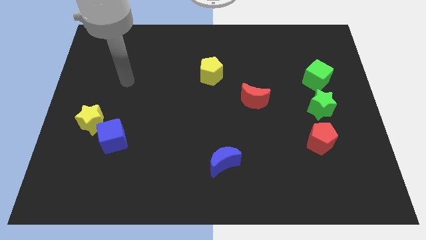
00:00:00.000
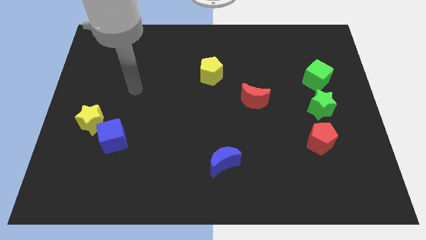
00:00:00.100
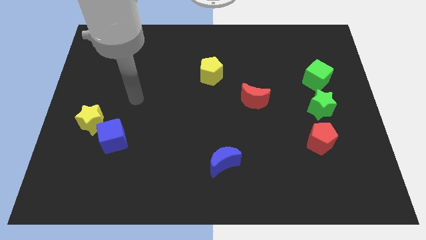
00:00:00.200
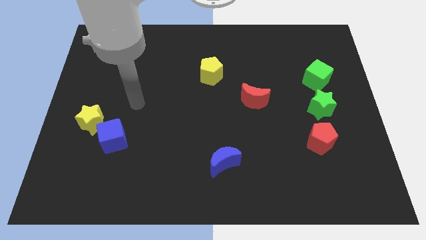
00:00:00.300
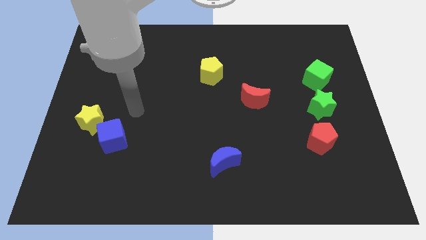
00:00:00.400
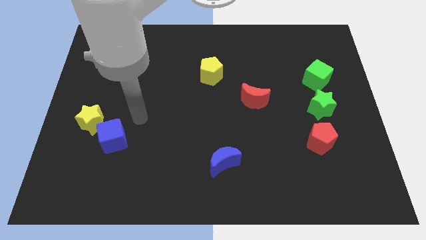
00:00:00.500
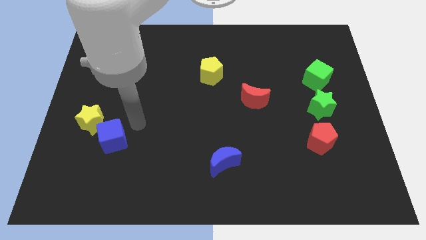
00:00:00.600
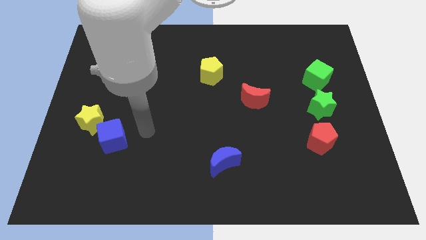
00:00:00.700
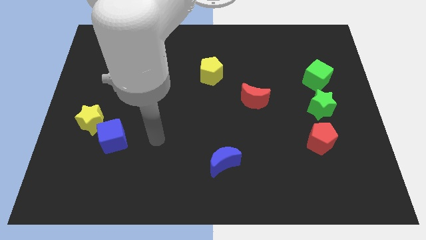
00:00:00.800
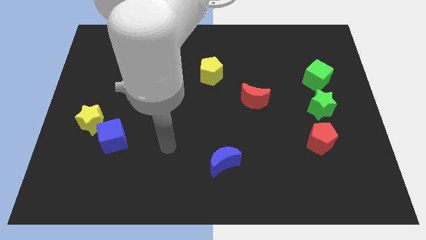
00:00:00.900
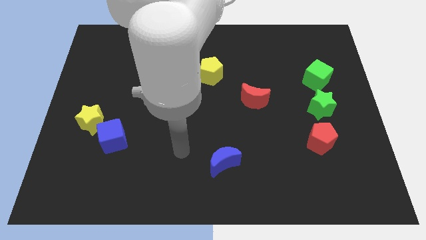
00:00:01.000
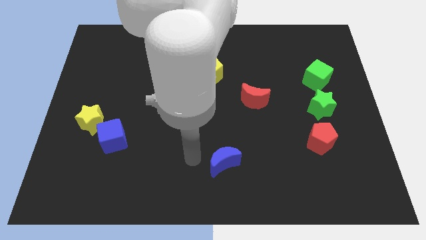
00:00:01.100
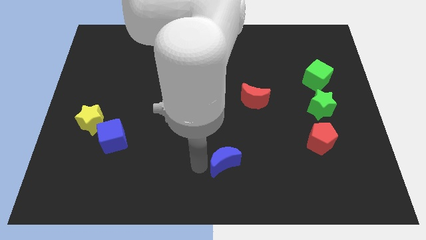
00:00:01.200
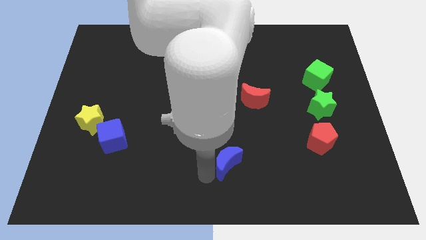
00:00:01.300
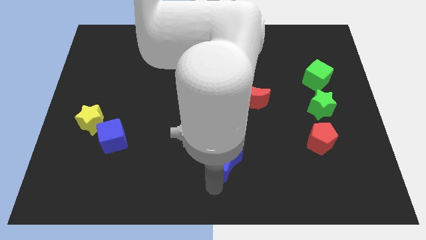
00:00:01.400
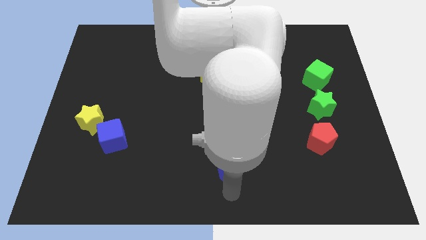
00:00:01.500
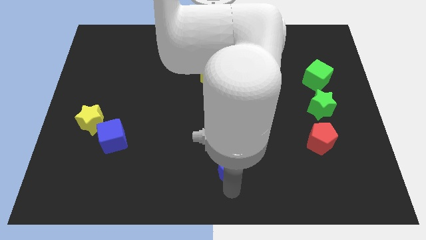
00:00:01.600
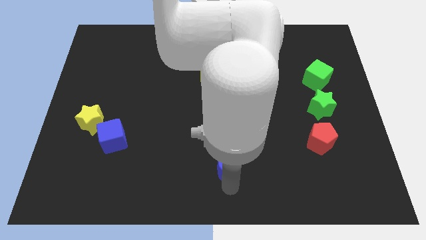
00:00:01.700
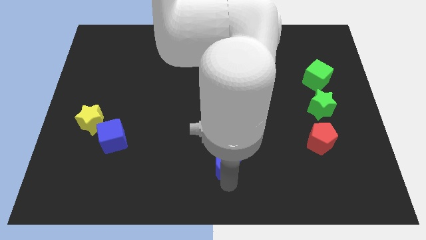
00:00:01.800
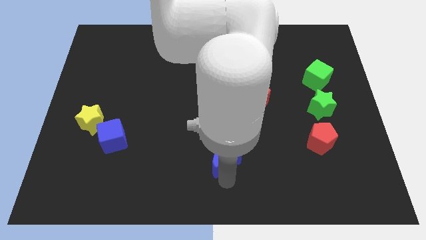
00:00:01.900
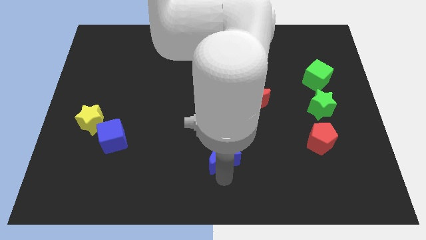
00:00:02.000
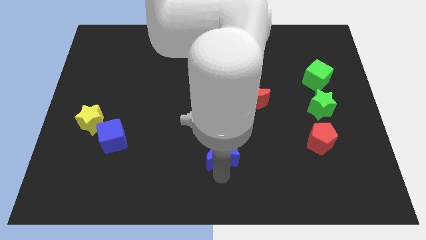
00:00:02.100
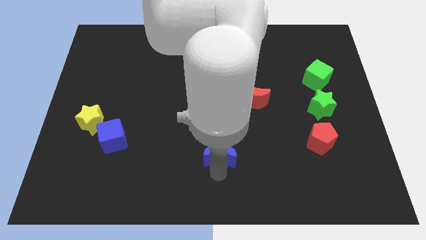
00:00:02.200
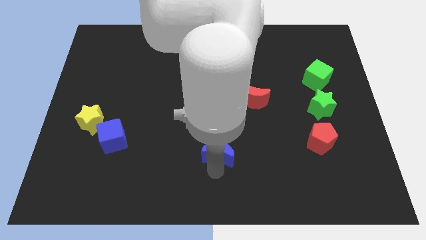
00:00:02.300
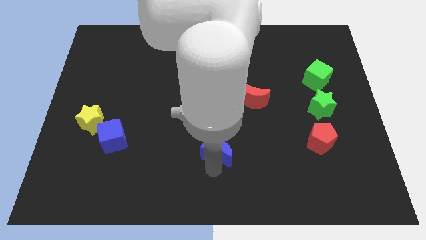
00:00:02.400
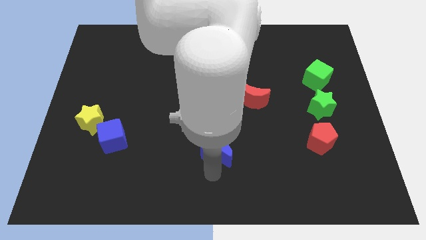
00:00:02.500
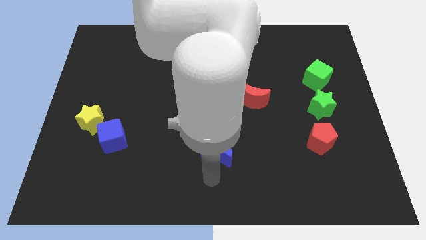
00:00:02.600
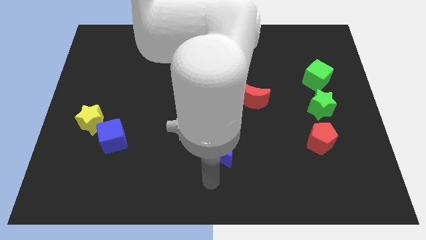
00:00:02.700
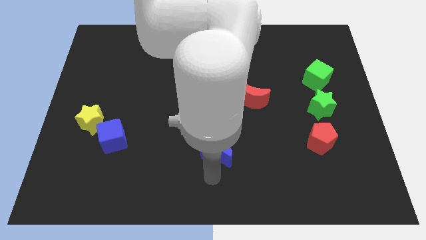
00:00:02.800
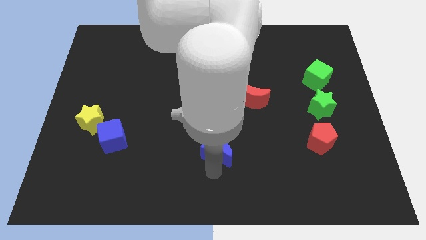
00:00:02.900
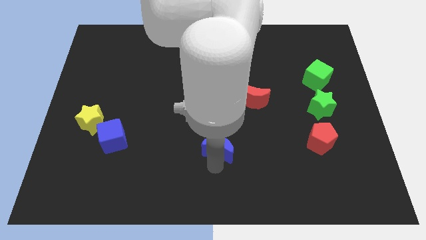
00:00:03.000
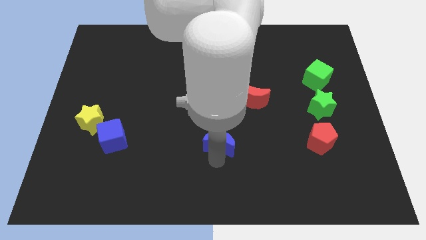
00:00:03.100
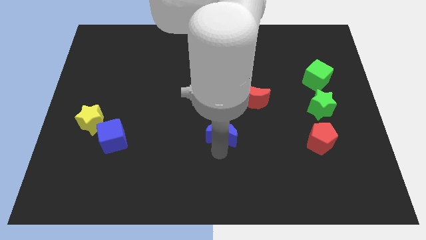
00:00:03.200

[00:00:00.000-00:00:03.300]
push the blue moon up a little bit

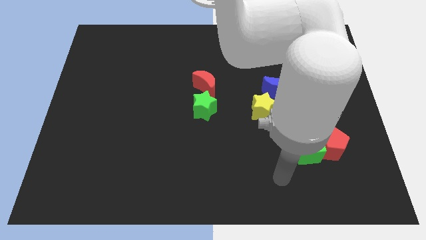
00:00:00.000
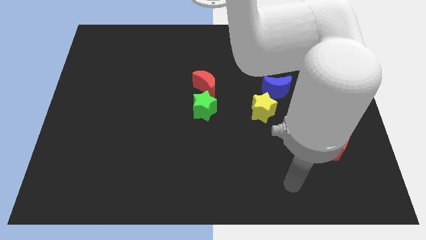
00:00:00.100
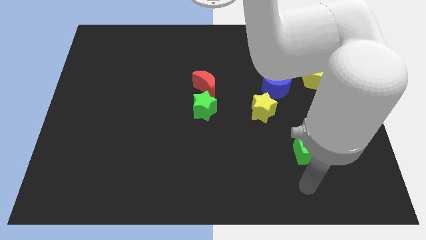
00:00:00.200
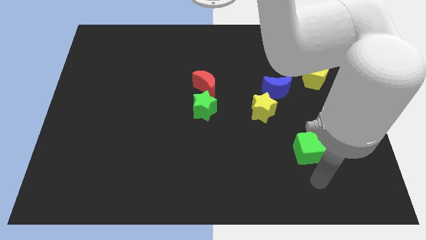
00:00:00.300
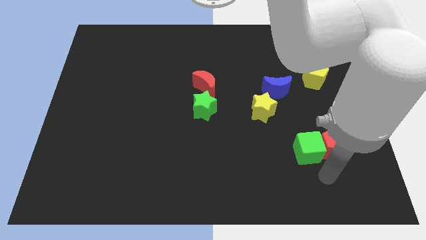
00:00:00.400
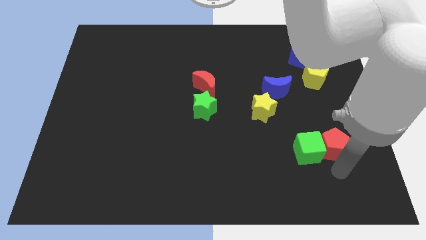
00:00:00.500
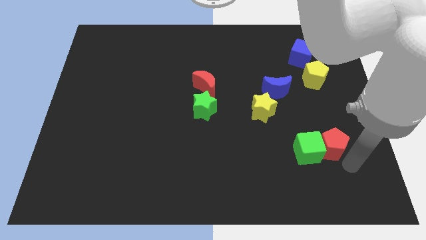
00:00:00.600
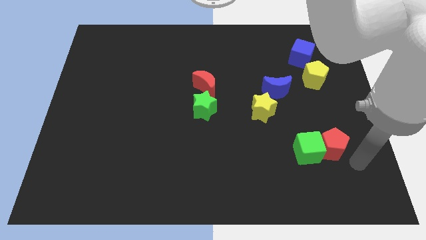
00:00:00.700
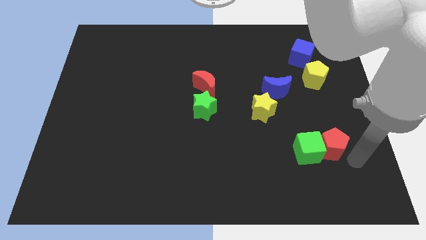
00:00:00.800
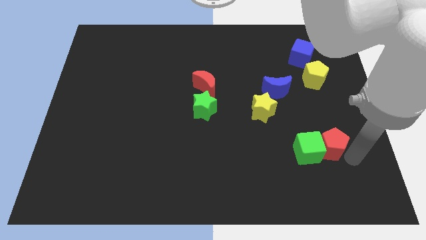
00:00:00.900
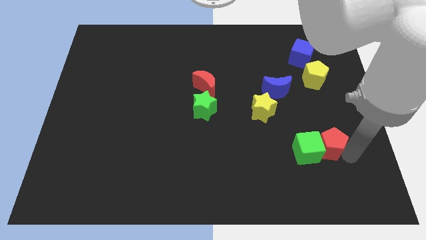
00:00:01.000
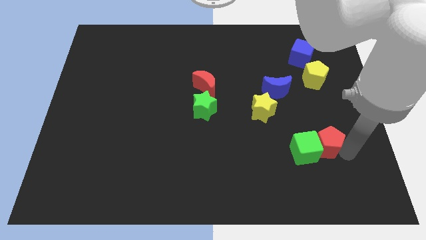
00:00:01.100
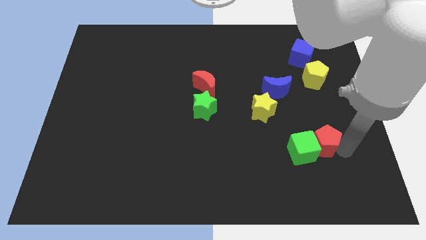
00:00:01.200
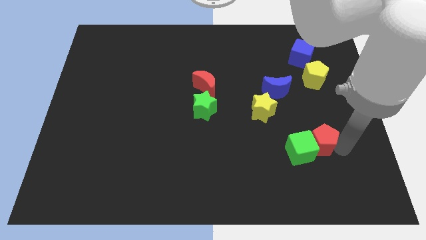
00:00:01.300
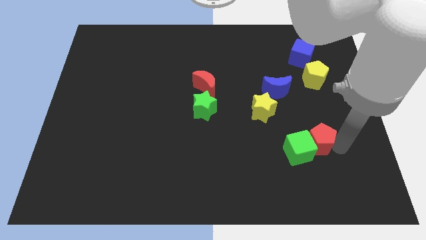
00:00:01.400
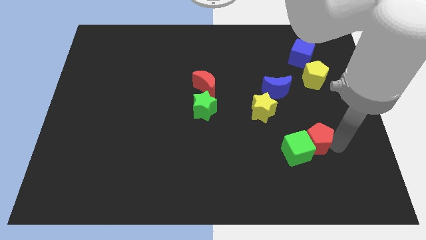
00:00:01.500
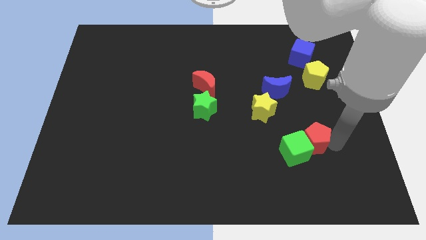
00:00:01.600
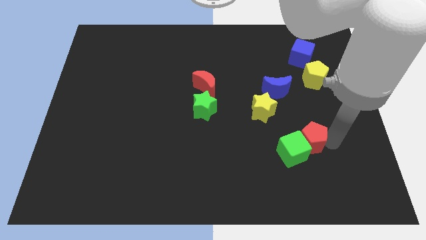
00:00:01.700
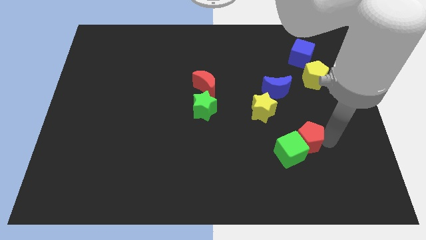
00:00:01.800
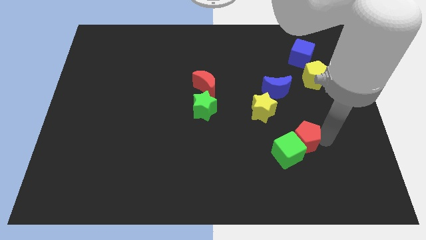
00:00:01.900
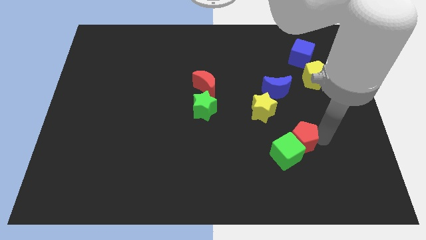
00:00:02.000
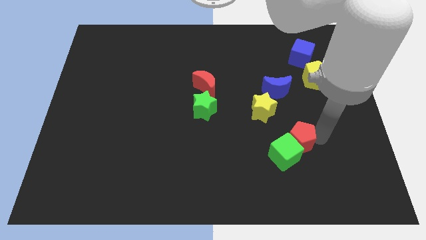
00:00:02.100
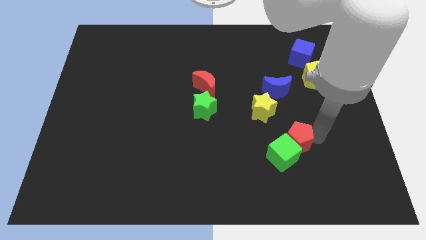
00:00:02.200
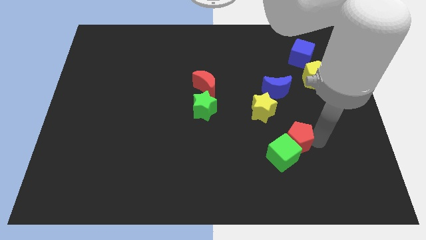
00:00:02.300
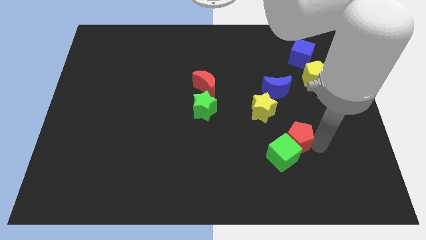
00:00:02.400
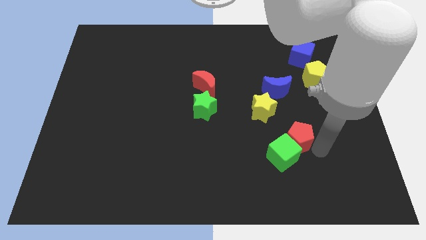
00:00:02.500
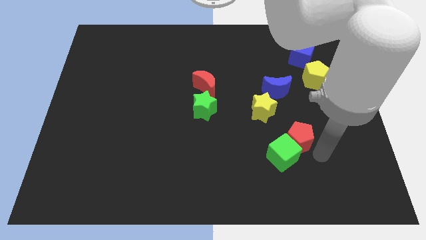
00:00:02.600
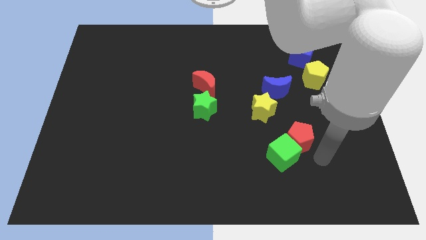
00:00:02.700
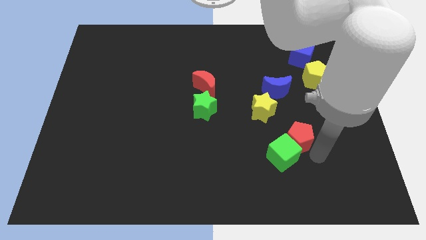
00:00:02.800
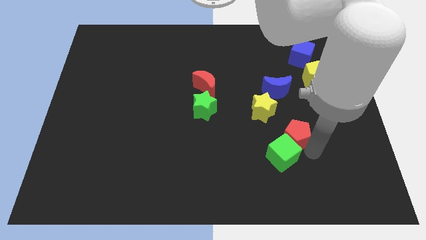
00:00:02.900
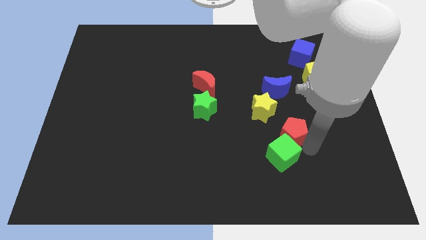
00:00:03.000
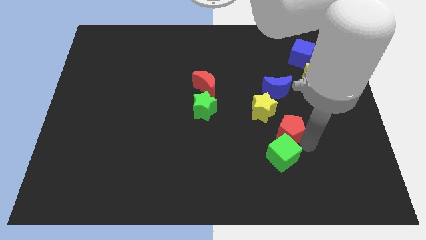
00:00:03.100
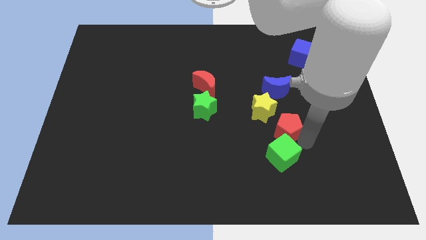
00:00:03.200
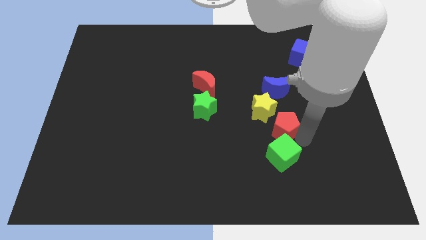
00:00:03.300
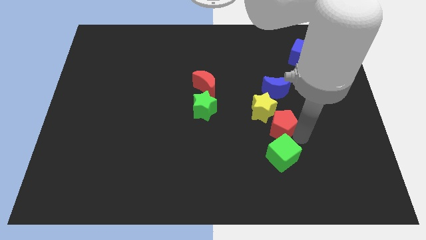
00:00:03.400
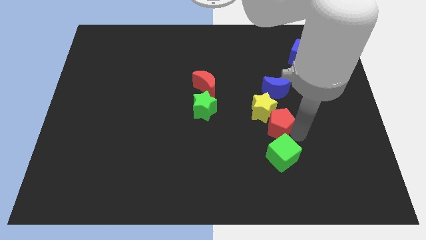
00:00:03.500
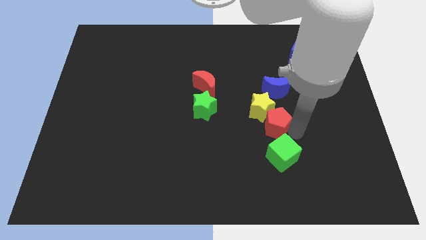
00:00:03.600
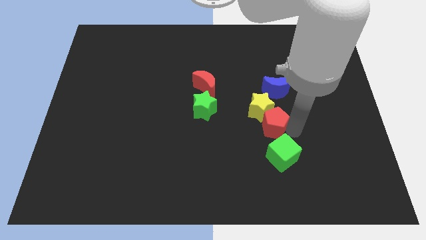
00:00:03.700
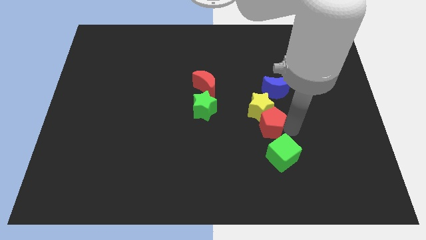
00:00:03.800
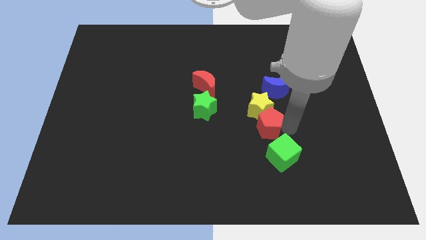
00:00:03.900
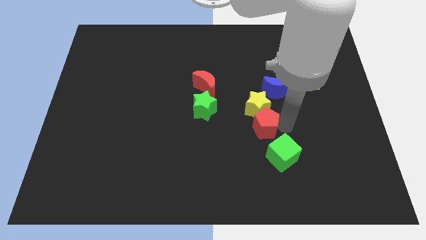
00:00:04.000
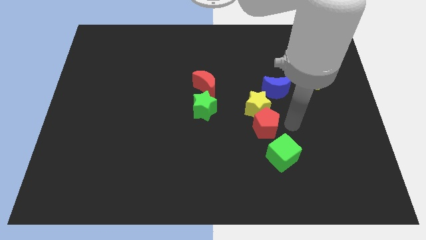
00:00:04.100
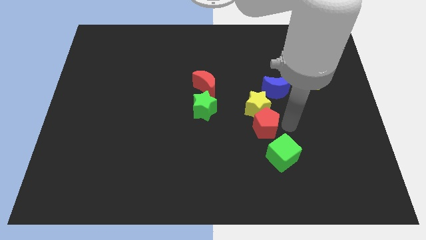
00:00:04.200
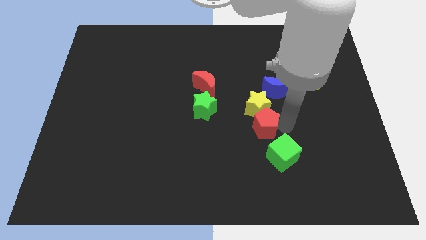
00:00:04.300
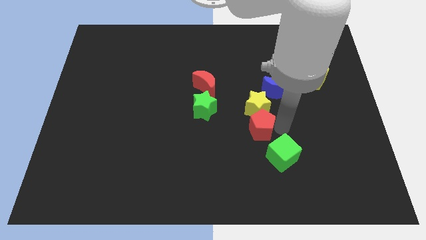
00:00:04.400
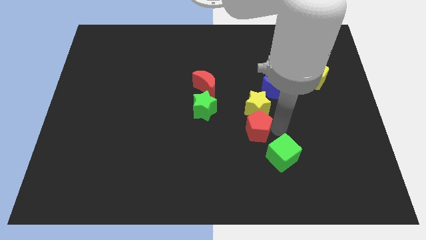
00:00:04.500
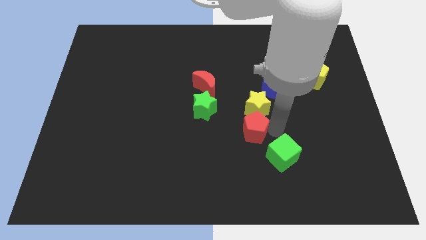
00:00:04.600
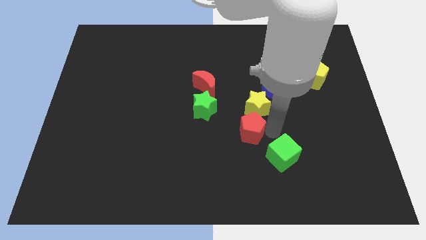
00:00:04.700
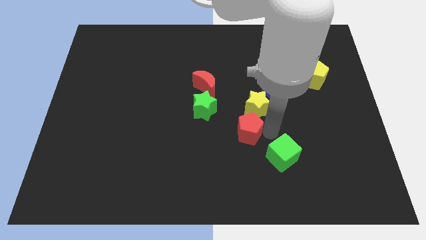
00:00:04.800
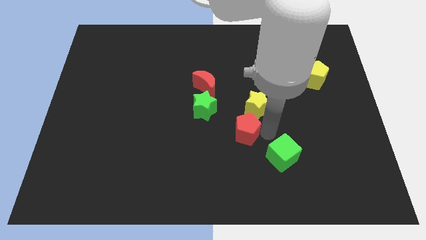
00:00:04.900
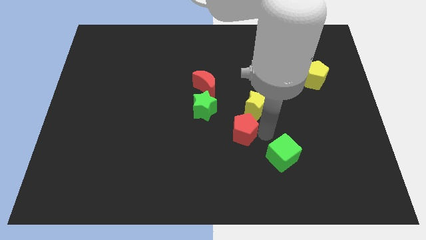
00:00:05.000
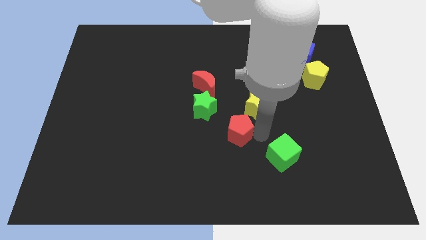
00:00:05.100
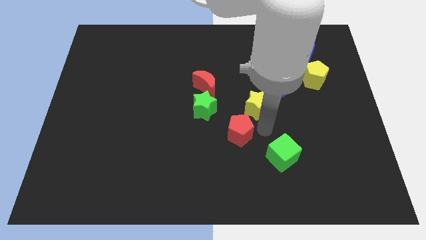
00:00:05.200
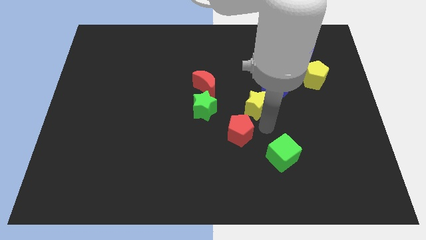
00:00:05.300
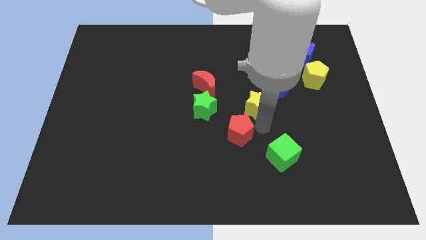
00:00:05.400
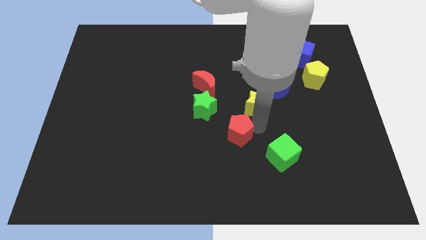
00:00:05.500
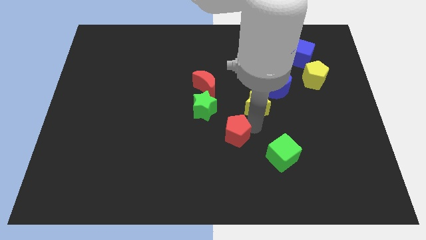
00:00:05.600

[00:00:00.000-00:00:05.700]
move the red pentagon left
